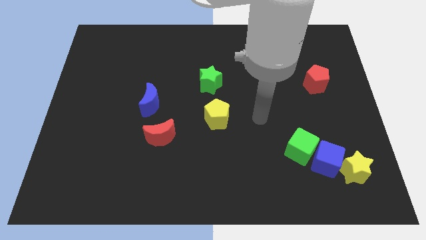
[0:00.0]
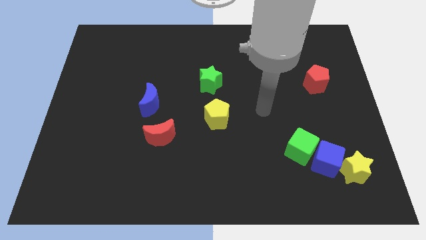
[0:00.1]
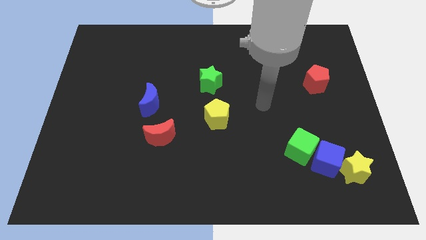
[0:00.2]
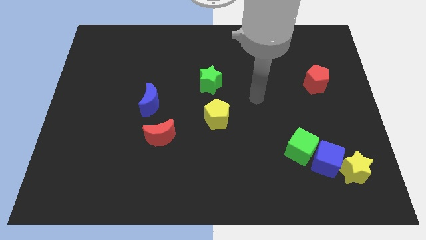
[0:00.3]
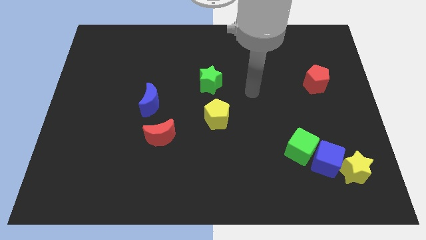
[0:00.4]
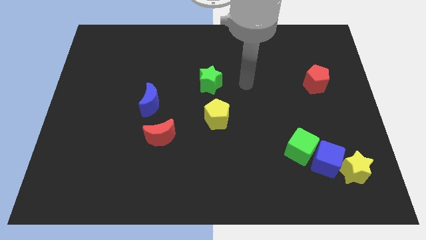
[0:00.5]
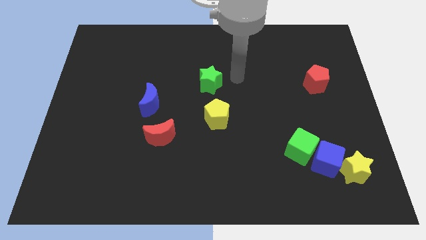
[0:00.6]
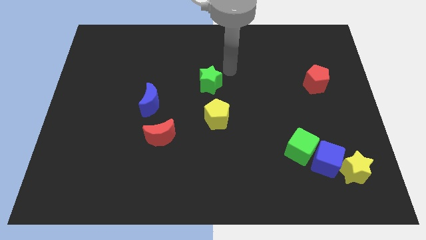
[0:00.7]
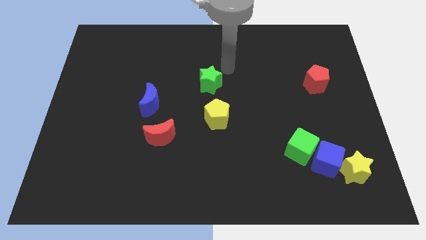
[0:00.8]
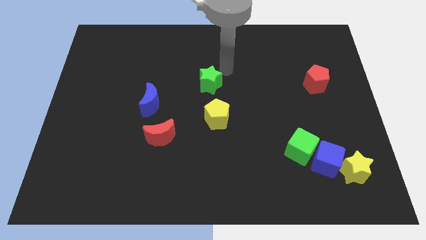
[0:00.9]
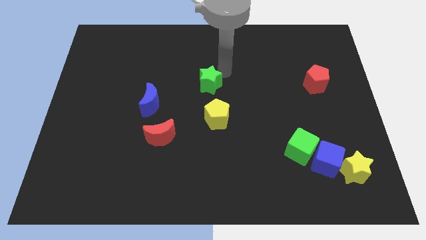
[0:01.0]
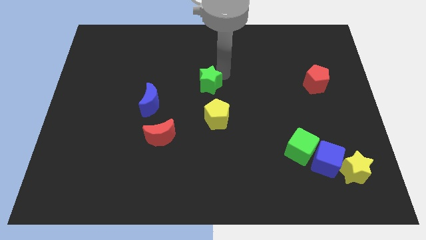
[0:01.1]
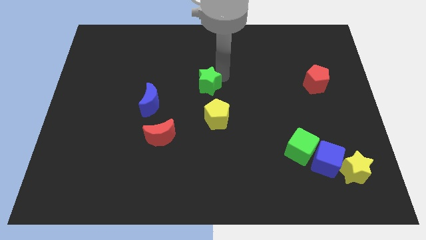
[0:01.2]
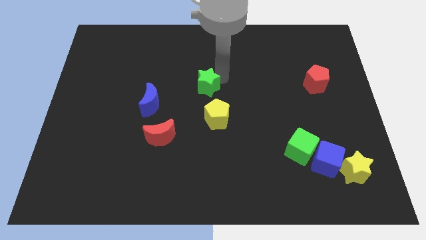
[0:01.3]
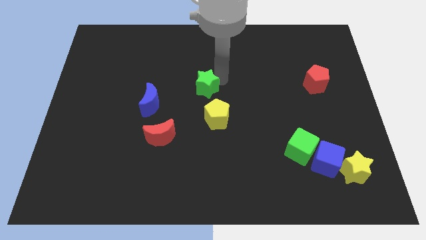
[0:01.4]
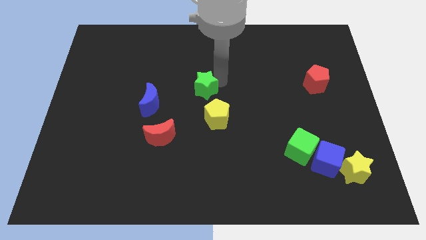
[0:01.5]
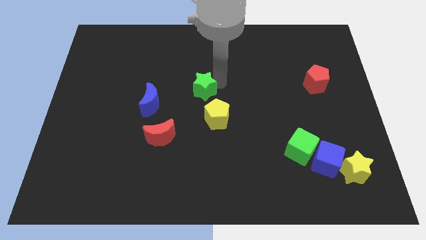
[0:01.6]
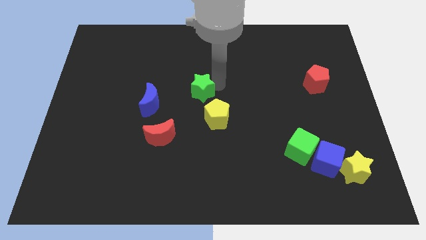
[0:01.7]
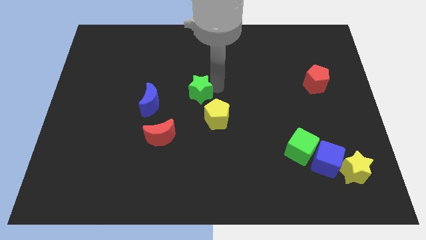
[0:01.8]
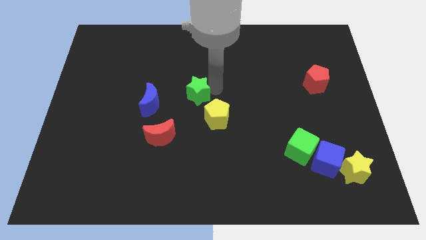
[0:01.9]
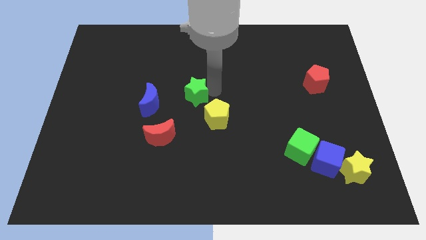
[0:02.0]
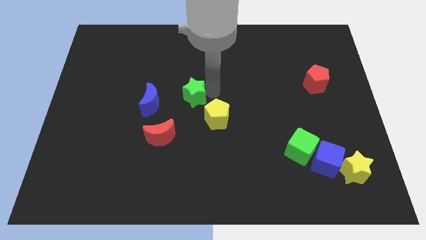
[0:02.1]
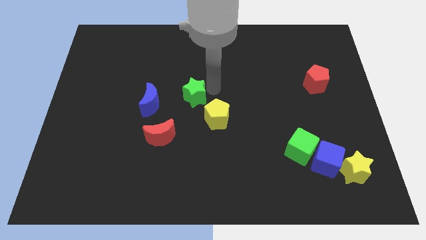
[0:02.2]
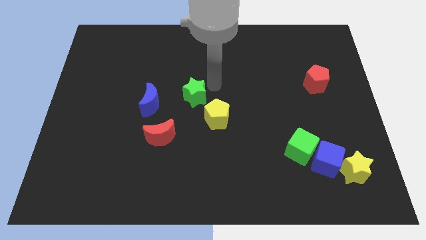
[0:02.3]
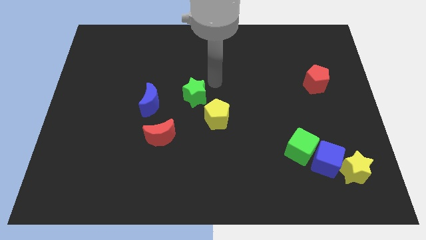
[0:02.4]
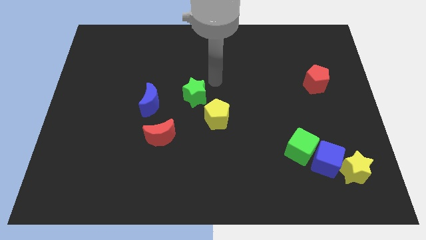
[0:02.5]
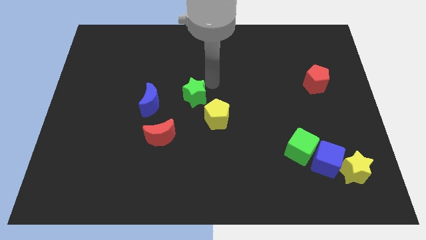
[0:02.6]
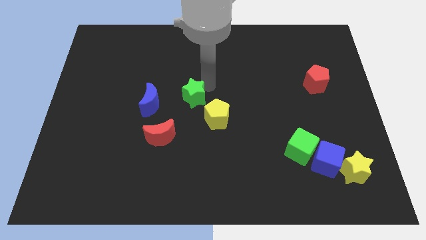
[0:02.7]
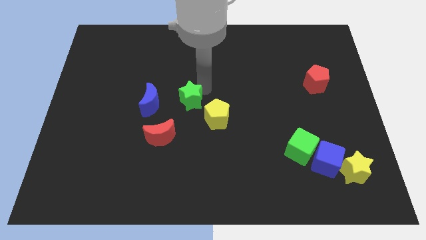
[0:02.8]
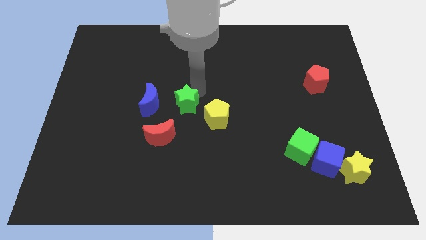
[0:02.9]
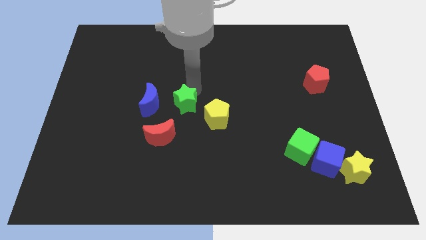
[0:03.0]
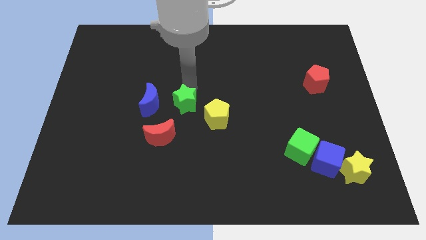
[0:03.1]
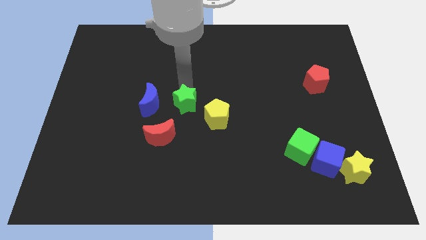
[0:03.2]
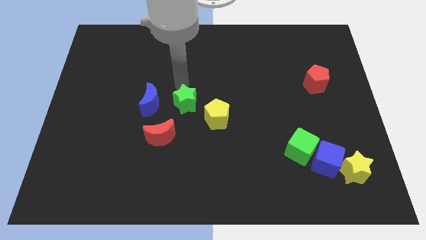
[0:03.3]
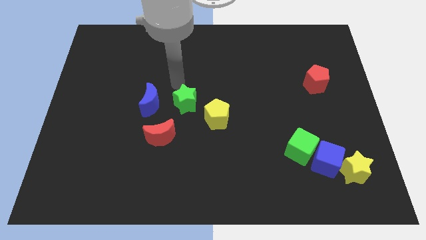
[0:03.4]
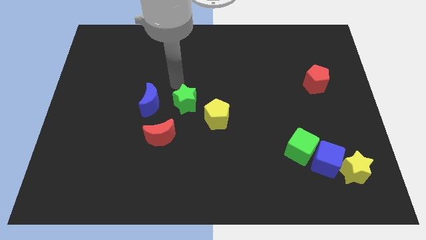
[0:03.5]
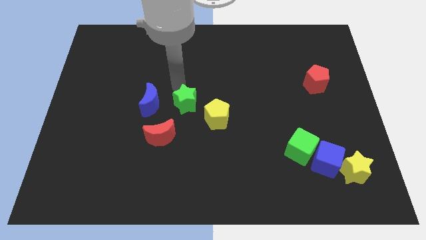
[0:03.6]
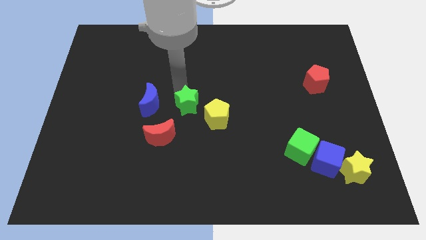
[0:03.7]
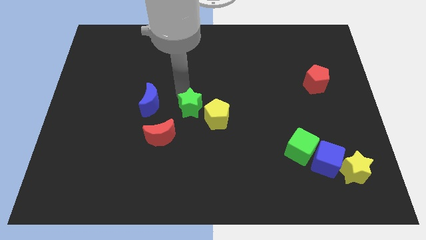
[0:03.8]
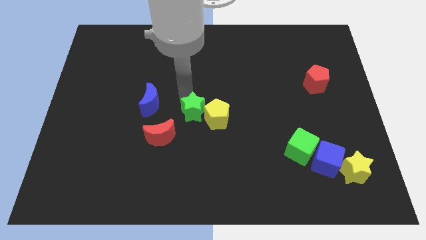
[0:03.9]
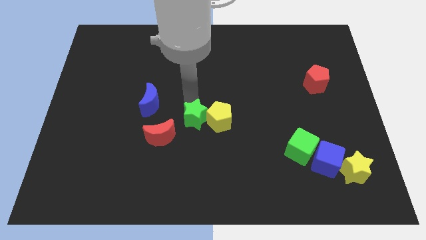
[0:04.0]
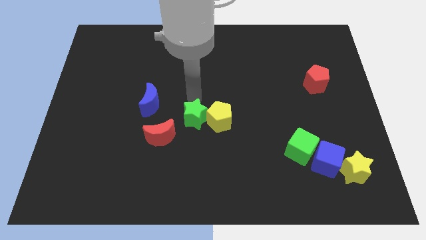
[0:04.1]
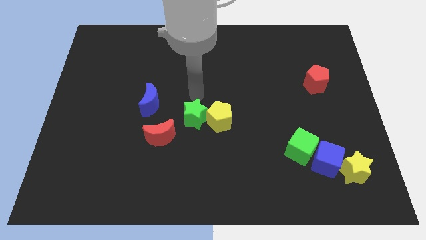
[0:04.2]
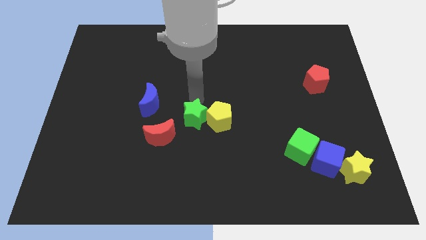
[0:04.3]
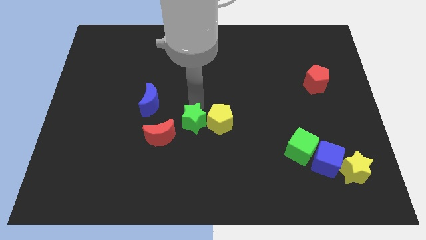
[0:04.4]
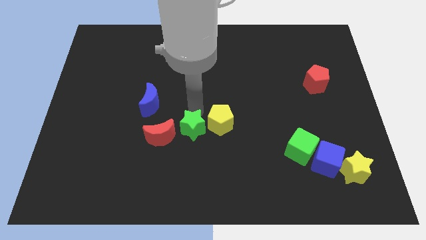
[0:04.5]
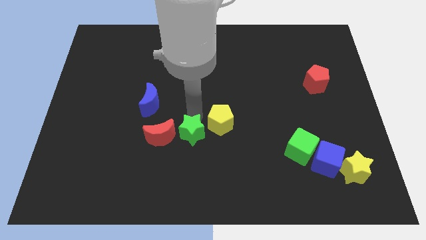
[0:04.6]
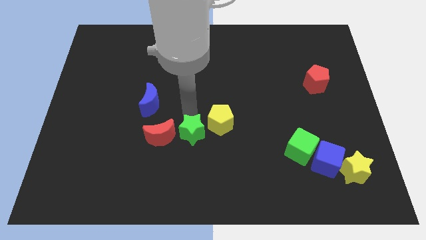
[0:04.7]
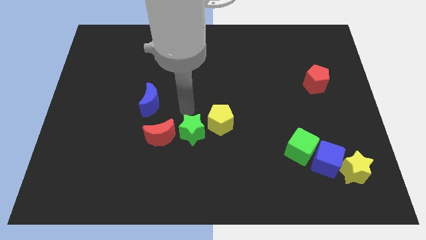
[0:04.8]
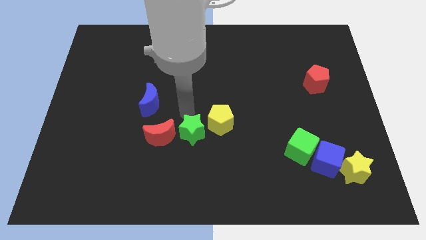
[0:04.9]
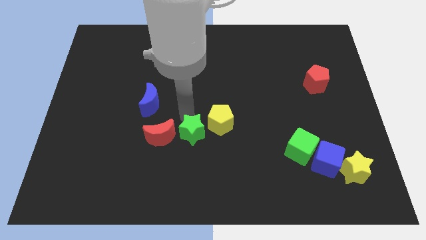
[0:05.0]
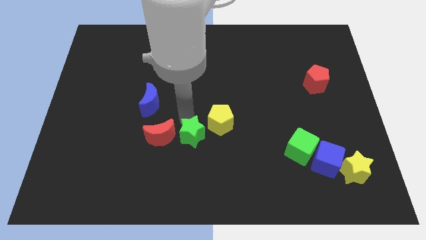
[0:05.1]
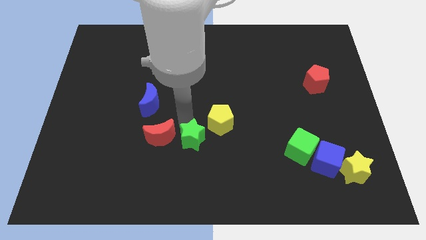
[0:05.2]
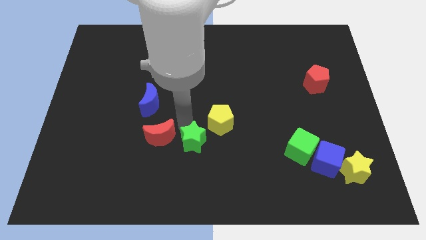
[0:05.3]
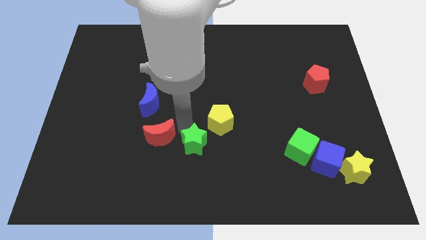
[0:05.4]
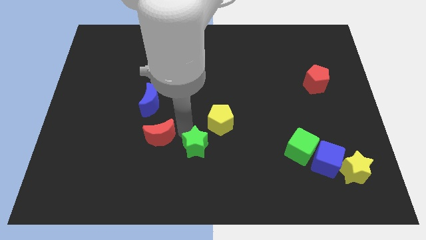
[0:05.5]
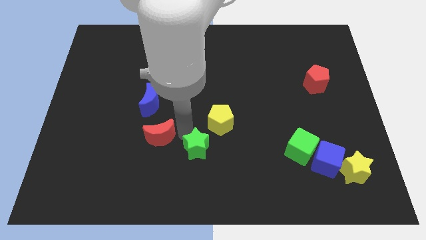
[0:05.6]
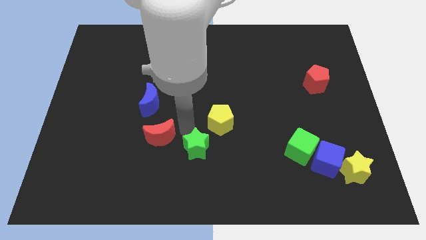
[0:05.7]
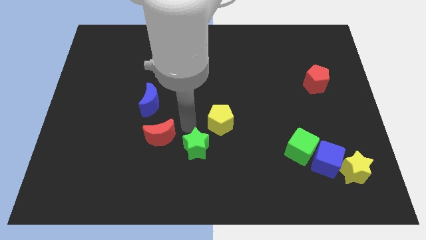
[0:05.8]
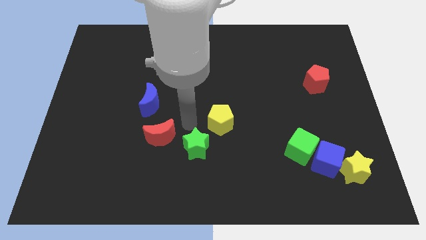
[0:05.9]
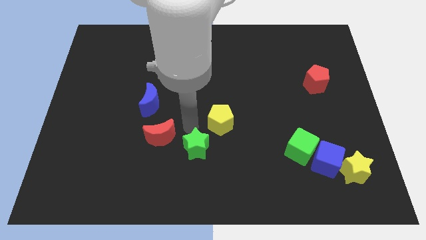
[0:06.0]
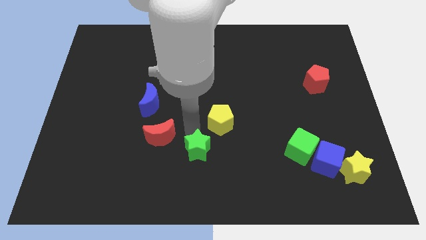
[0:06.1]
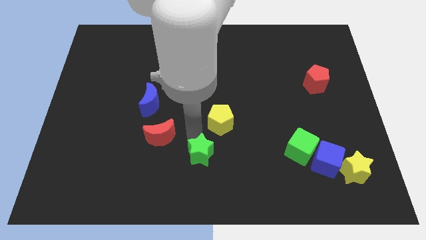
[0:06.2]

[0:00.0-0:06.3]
put the green star to the bottom side

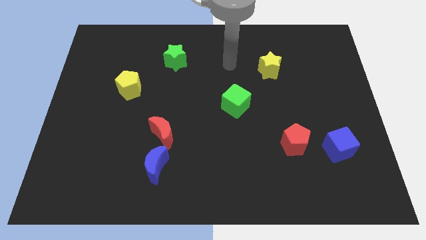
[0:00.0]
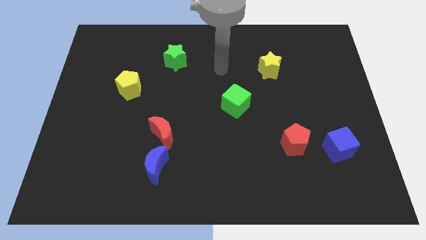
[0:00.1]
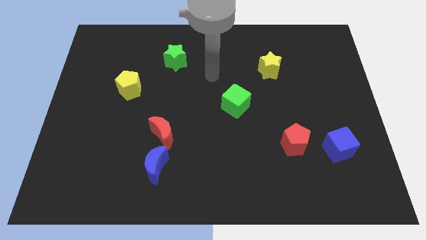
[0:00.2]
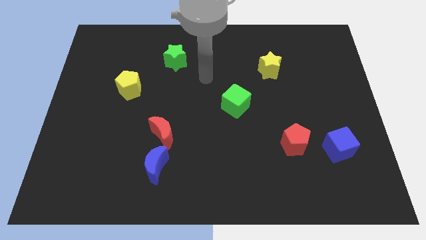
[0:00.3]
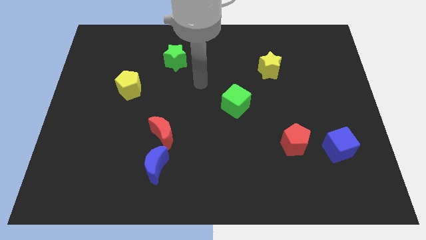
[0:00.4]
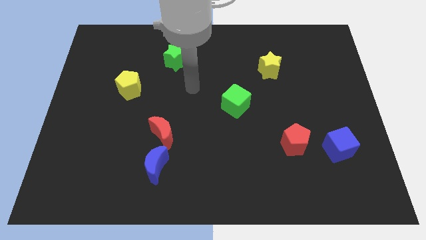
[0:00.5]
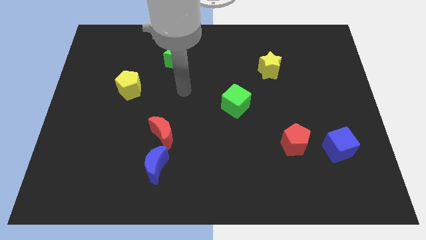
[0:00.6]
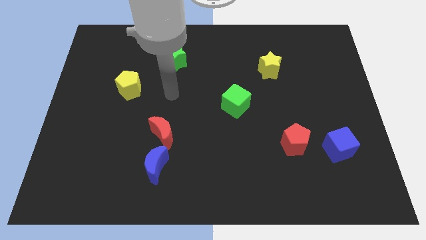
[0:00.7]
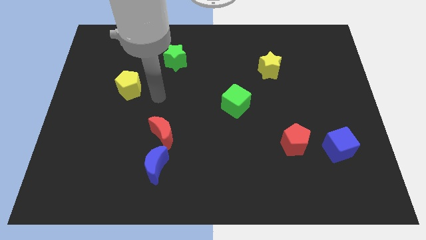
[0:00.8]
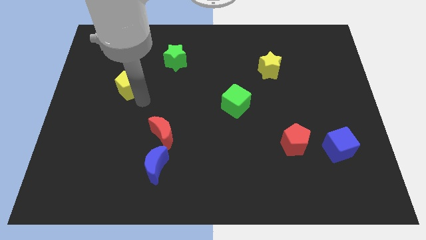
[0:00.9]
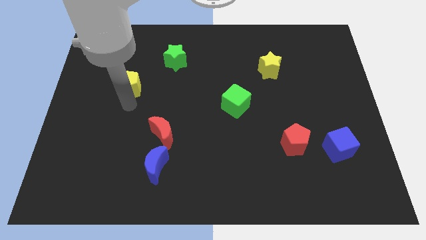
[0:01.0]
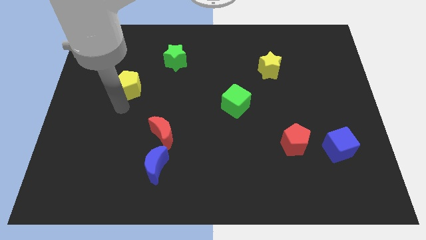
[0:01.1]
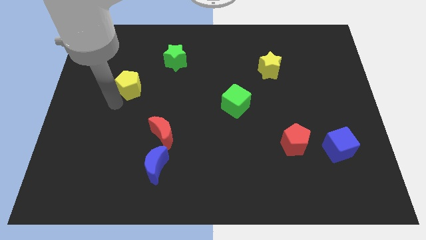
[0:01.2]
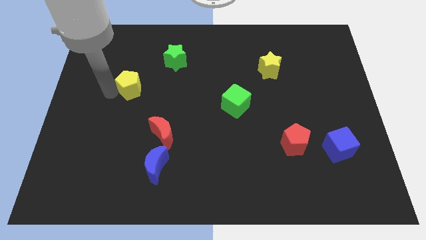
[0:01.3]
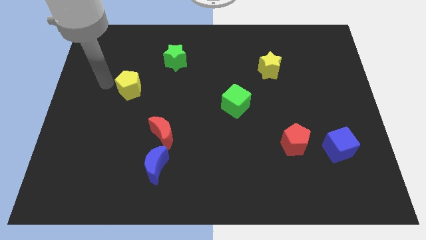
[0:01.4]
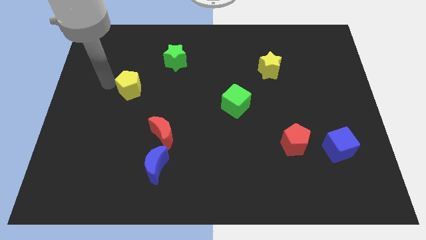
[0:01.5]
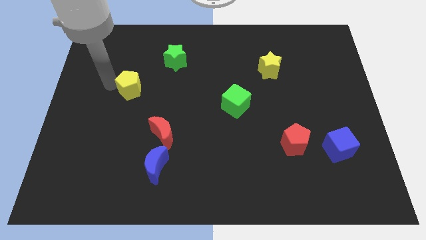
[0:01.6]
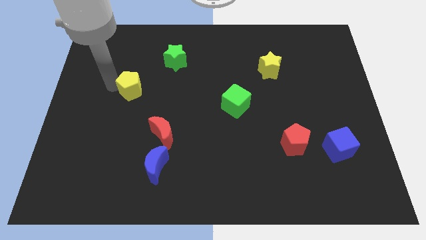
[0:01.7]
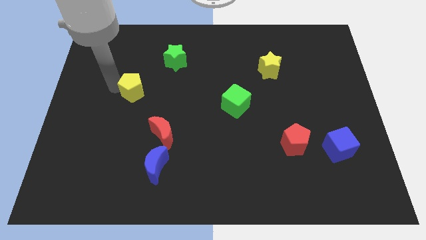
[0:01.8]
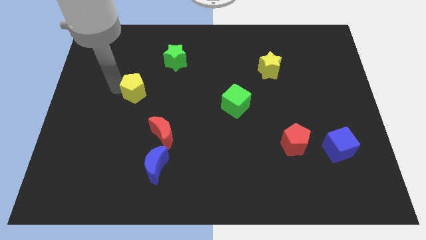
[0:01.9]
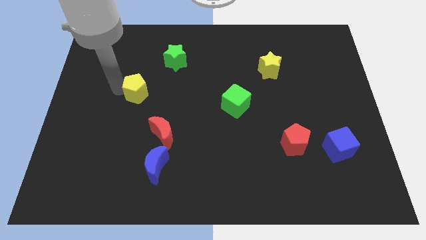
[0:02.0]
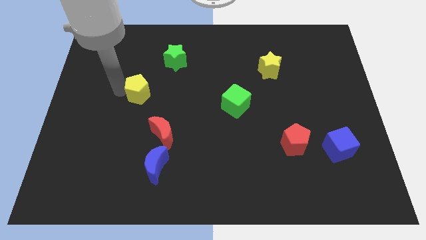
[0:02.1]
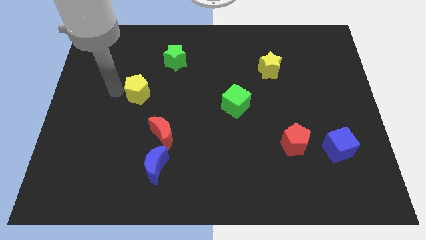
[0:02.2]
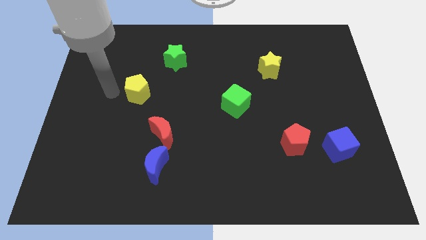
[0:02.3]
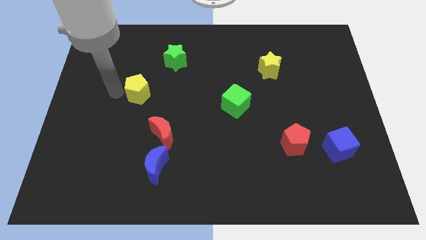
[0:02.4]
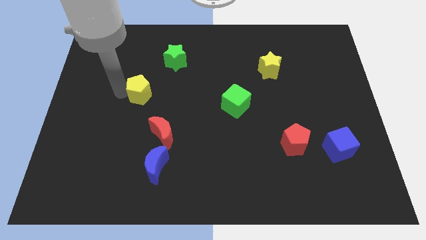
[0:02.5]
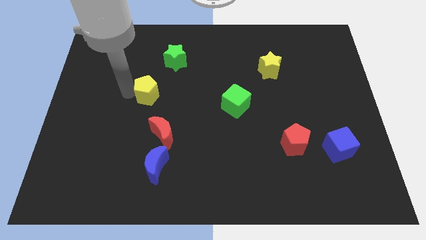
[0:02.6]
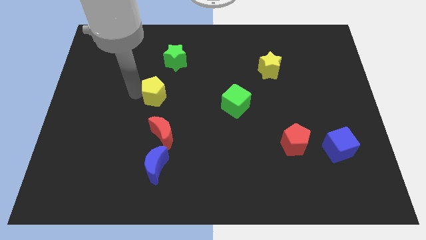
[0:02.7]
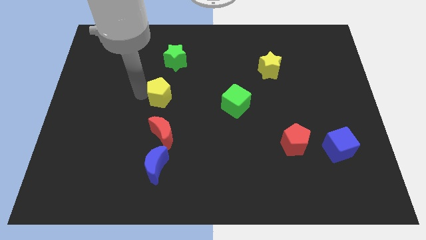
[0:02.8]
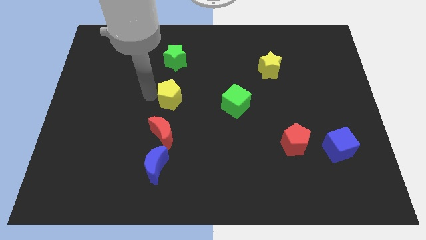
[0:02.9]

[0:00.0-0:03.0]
slide the yellow pentagon to the middle
